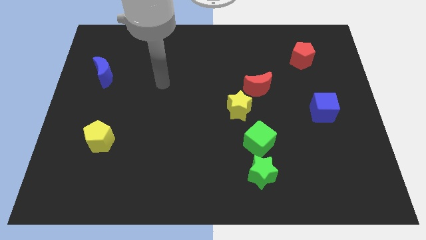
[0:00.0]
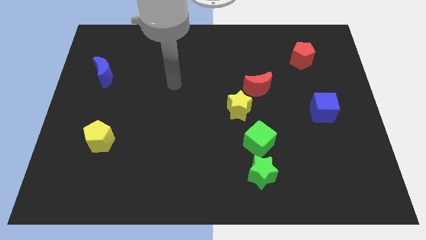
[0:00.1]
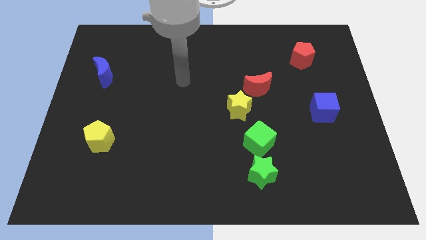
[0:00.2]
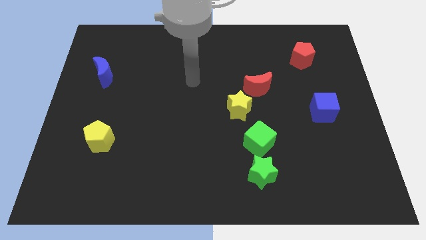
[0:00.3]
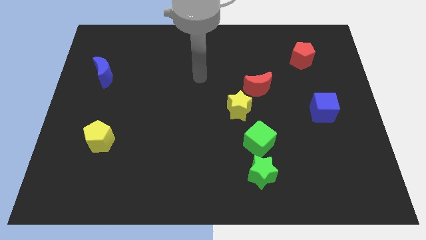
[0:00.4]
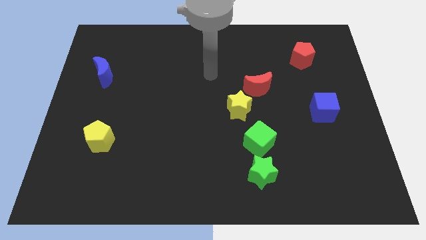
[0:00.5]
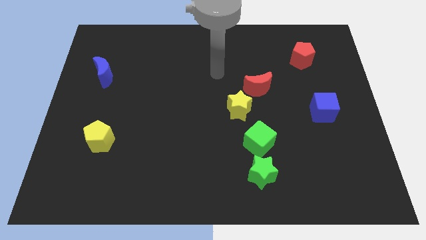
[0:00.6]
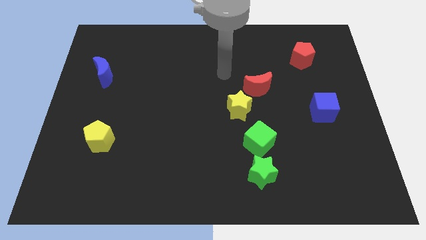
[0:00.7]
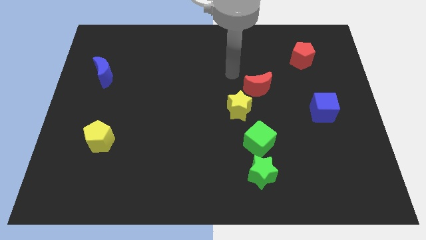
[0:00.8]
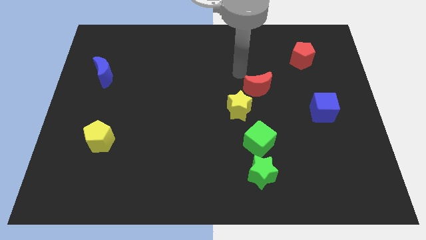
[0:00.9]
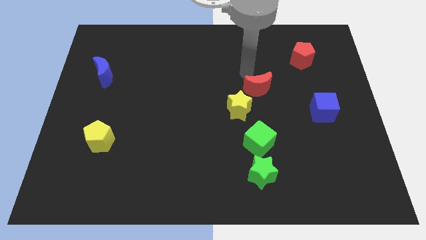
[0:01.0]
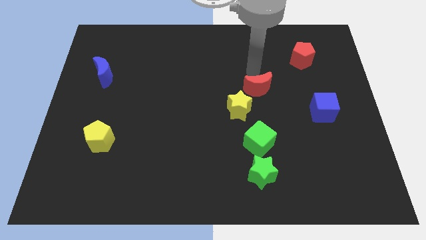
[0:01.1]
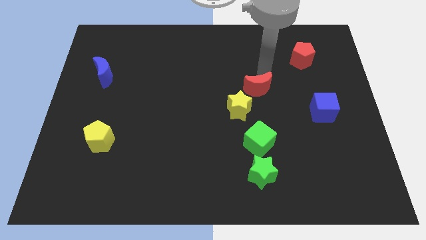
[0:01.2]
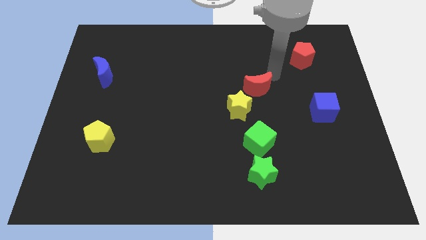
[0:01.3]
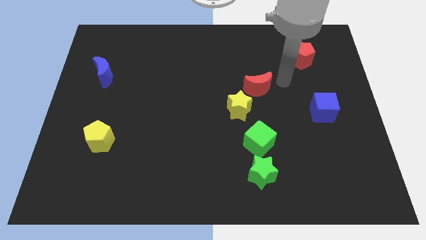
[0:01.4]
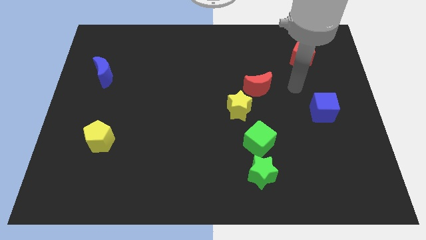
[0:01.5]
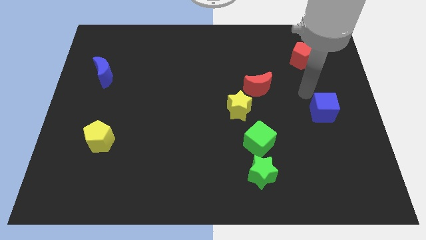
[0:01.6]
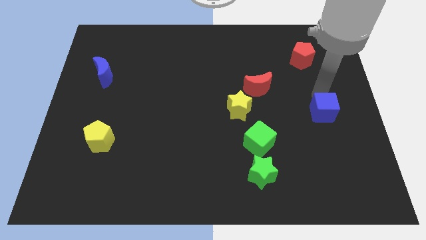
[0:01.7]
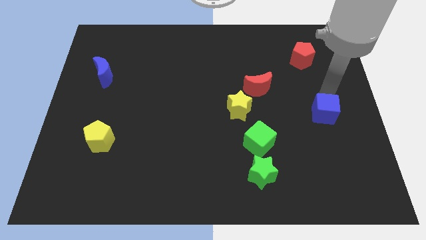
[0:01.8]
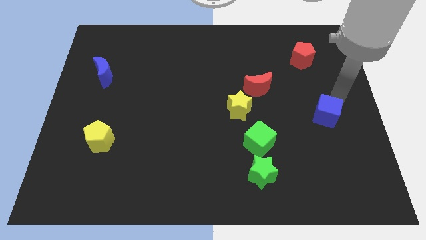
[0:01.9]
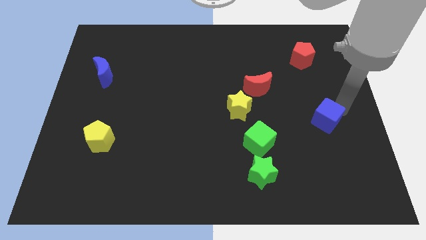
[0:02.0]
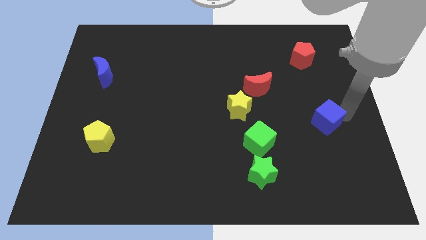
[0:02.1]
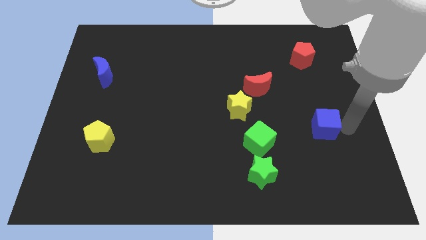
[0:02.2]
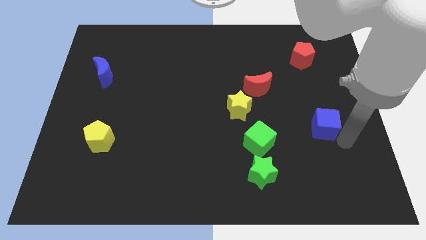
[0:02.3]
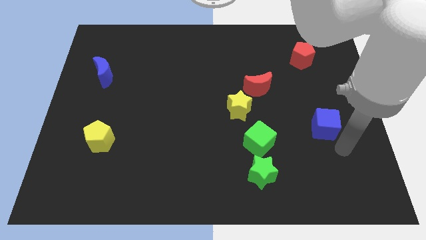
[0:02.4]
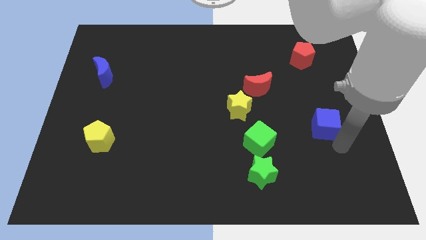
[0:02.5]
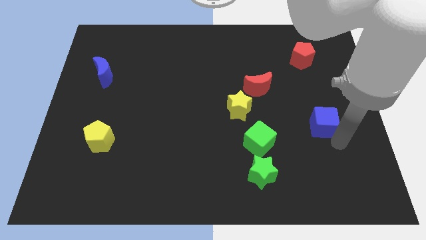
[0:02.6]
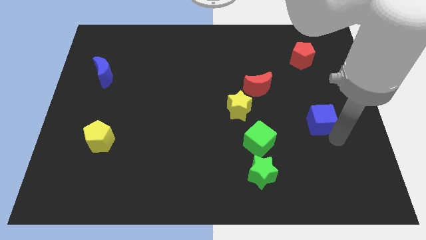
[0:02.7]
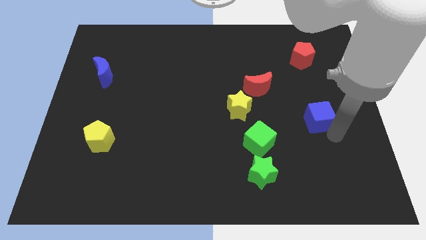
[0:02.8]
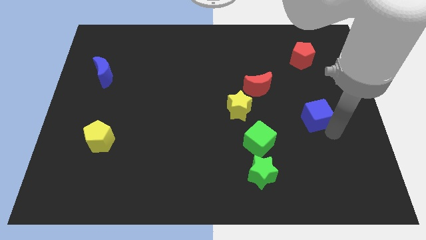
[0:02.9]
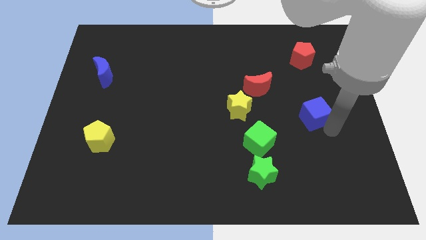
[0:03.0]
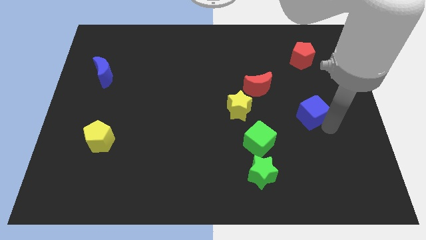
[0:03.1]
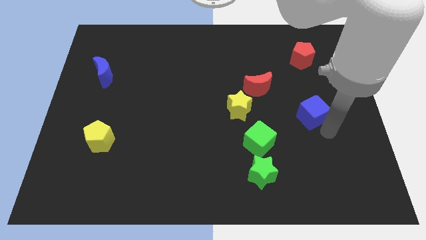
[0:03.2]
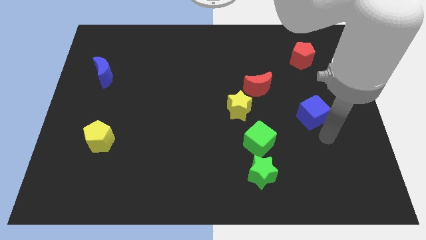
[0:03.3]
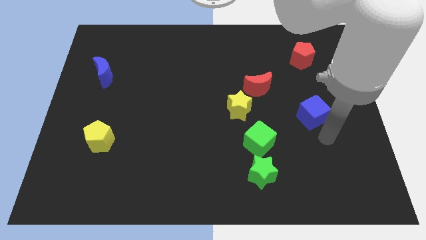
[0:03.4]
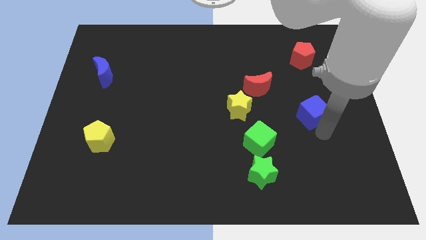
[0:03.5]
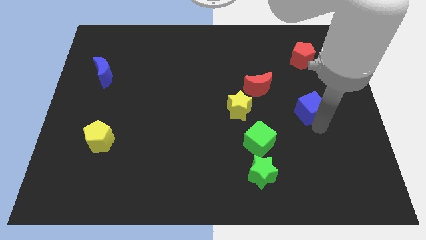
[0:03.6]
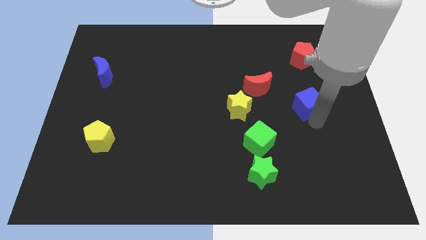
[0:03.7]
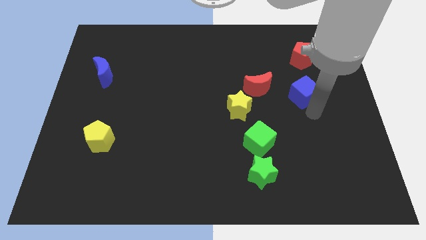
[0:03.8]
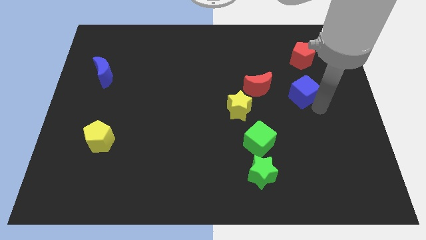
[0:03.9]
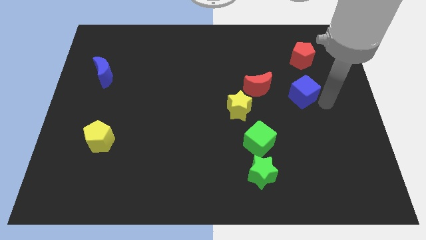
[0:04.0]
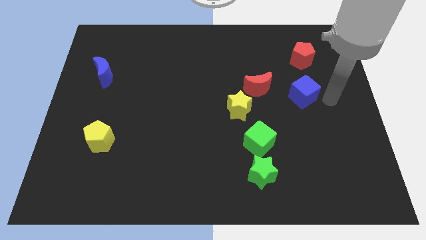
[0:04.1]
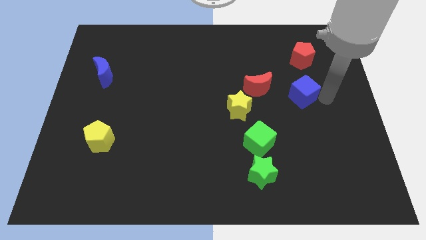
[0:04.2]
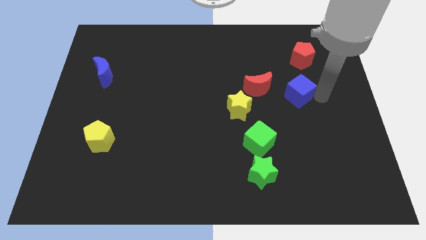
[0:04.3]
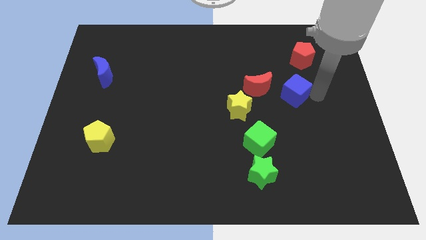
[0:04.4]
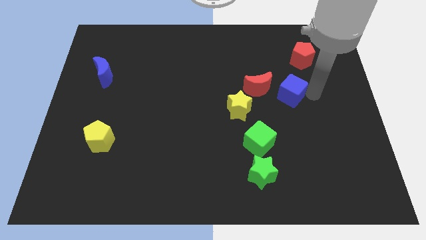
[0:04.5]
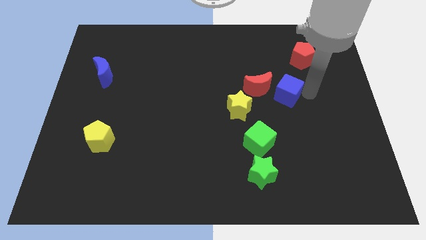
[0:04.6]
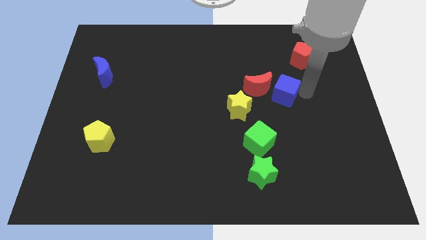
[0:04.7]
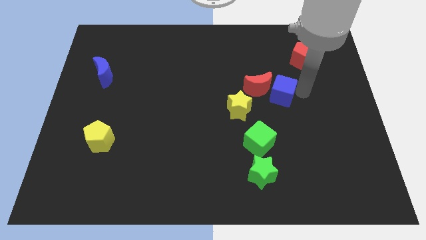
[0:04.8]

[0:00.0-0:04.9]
move the blue cube close to the red moon

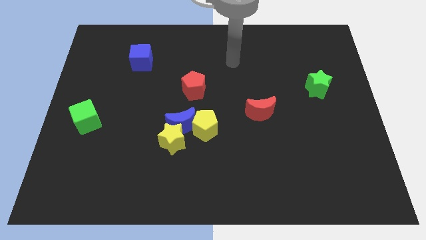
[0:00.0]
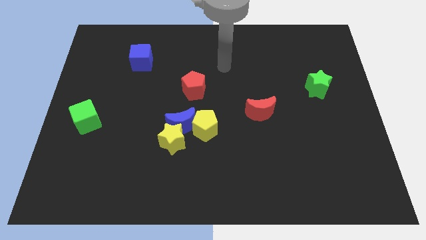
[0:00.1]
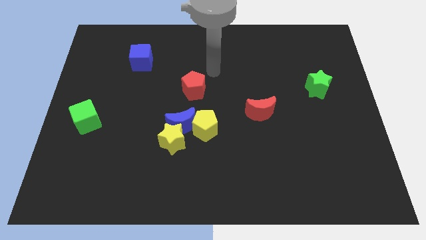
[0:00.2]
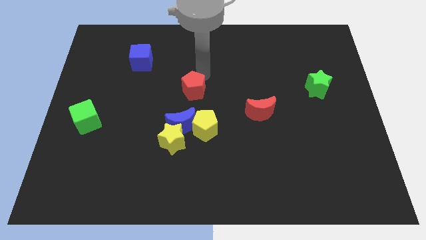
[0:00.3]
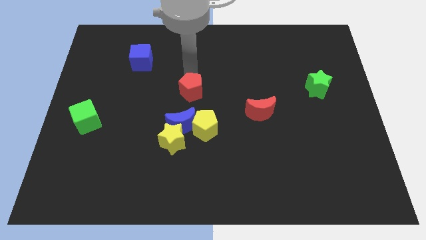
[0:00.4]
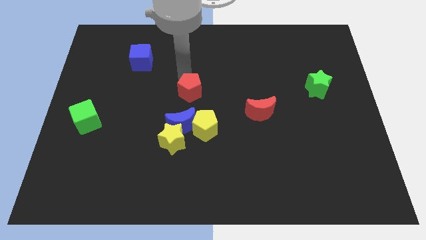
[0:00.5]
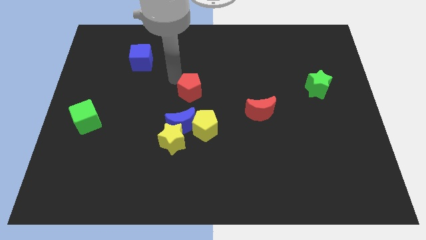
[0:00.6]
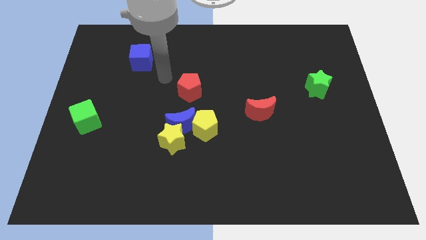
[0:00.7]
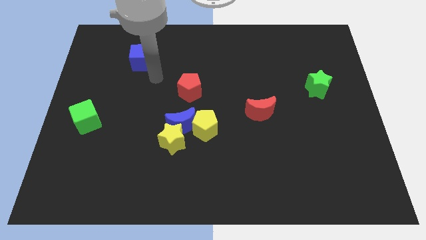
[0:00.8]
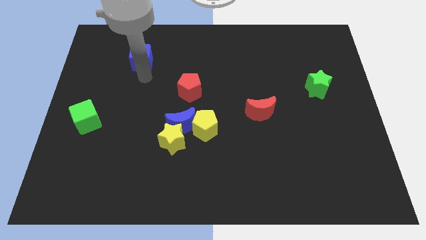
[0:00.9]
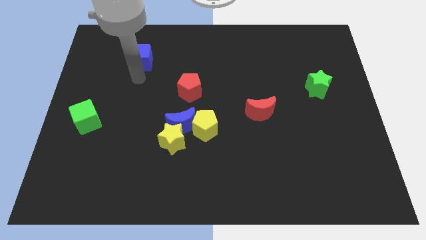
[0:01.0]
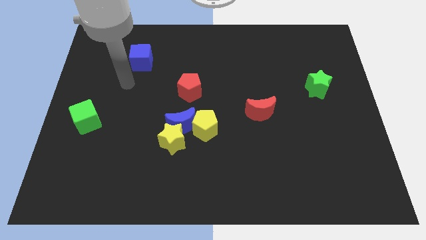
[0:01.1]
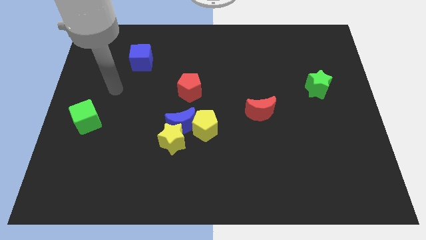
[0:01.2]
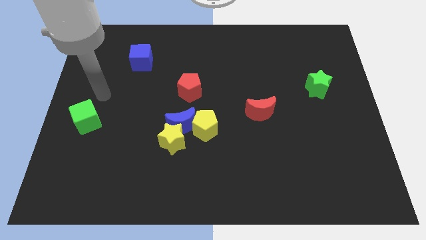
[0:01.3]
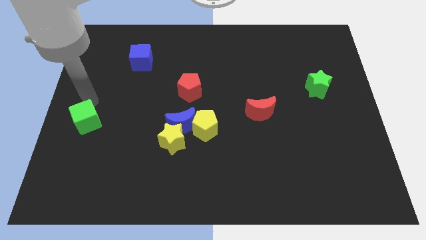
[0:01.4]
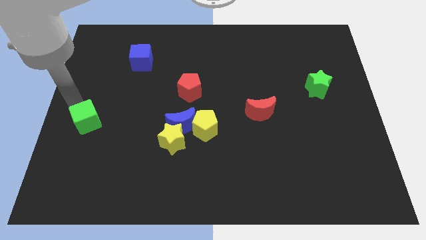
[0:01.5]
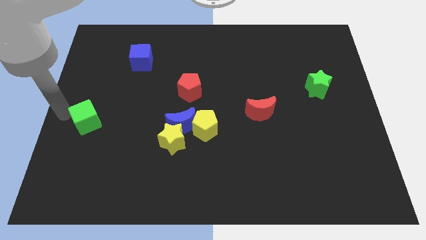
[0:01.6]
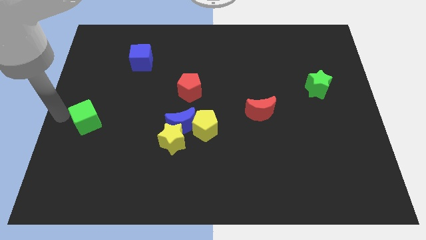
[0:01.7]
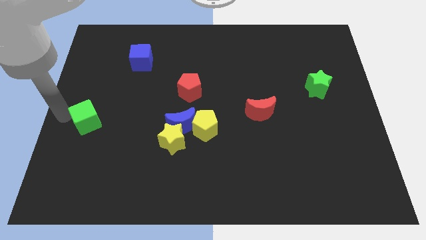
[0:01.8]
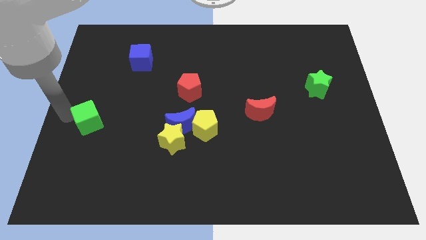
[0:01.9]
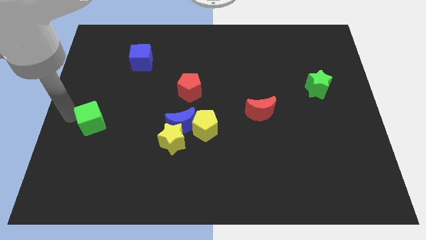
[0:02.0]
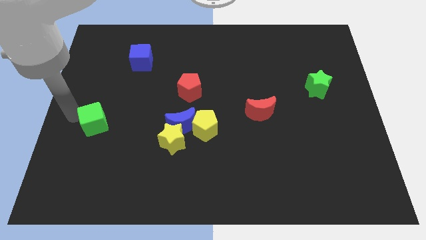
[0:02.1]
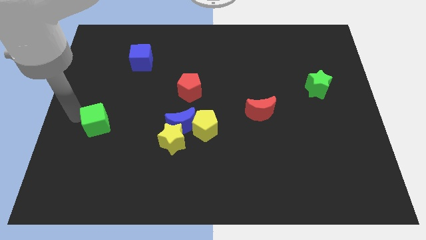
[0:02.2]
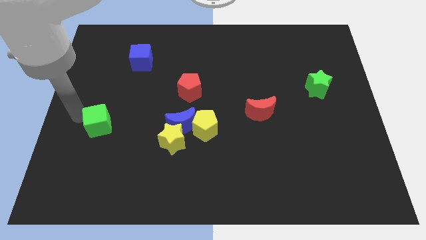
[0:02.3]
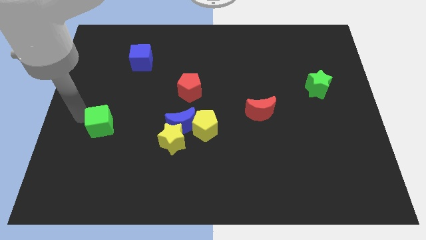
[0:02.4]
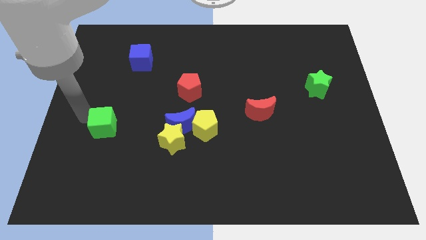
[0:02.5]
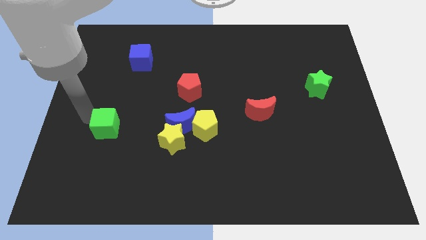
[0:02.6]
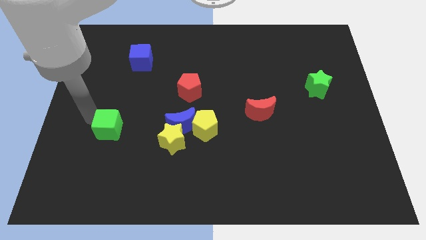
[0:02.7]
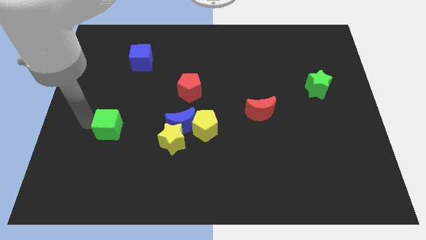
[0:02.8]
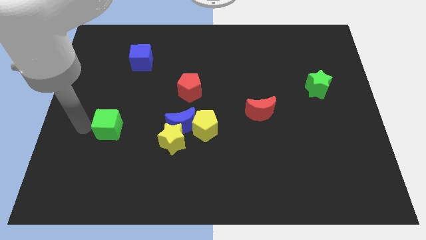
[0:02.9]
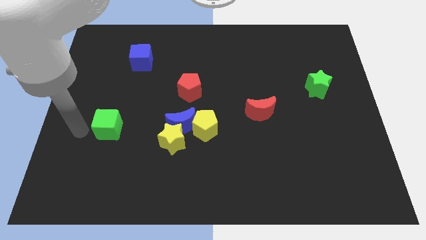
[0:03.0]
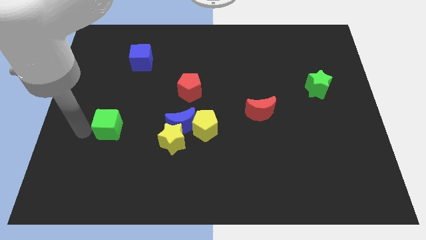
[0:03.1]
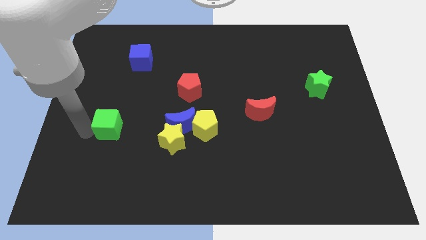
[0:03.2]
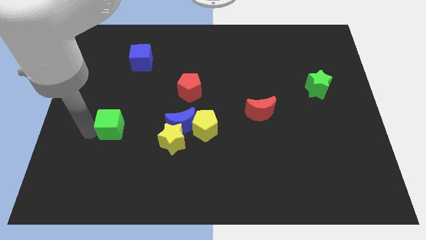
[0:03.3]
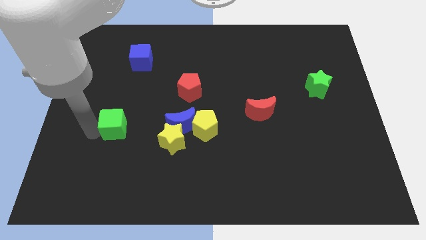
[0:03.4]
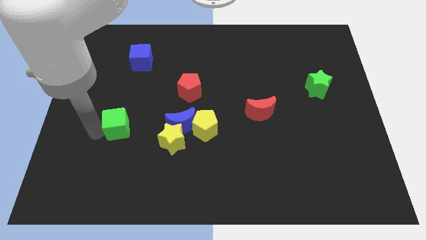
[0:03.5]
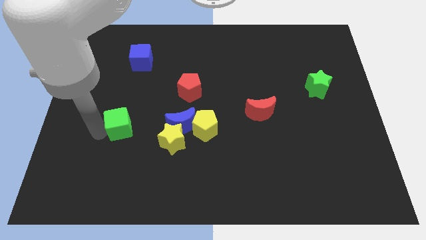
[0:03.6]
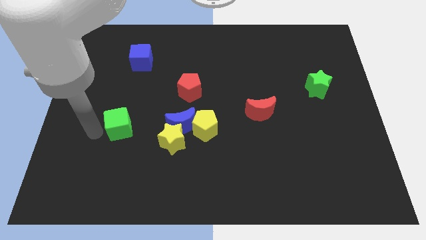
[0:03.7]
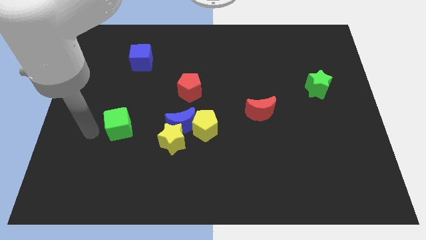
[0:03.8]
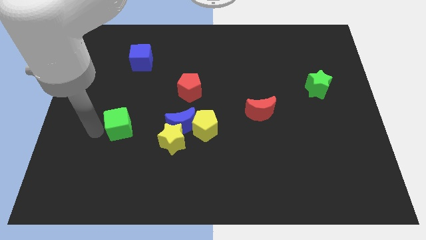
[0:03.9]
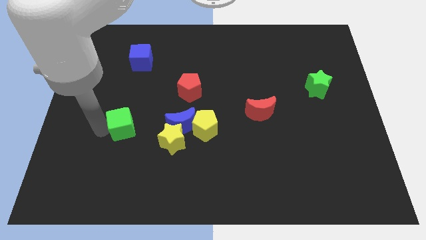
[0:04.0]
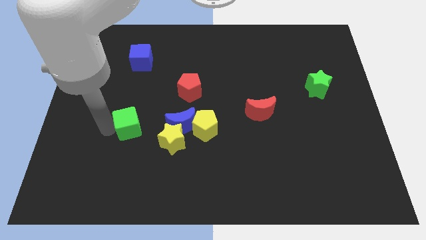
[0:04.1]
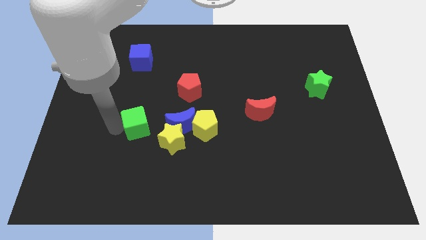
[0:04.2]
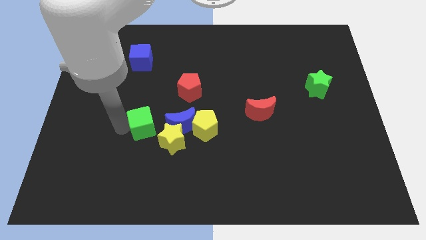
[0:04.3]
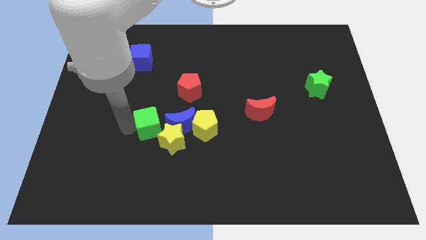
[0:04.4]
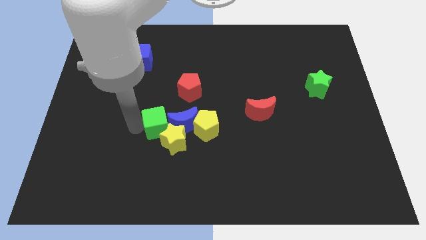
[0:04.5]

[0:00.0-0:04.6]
put the green cube next to the blue moon
